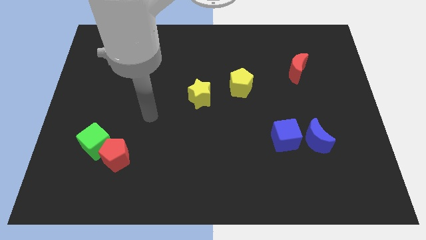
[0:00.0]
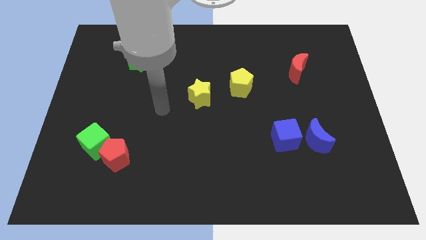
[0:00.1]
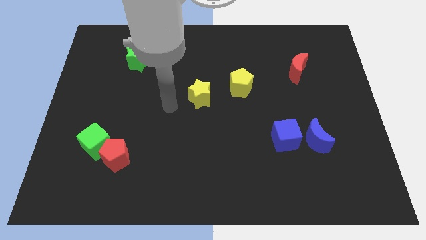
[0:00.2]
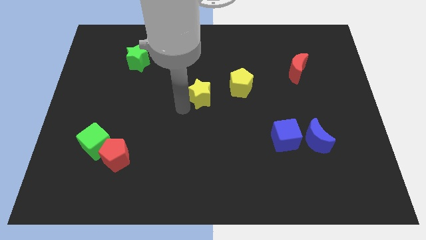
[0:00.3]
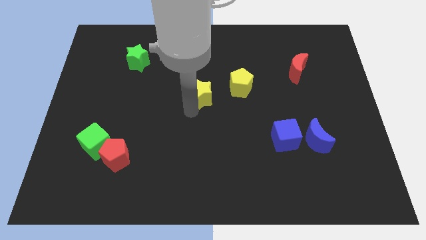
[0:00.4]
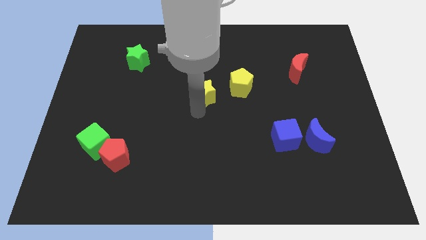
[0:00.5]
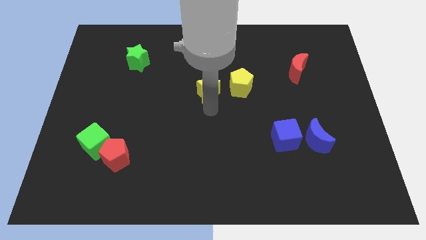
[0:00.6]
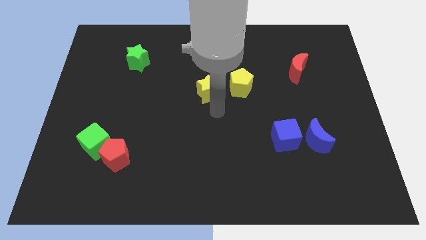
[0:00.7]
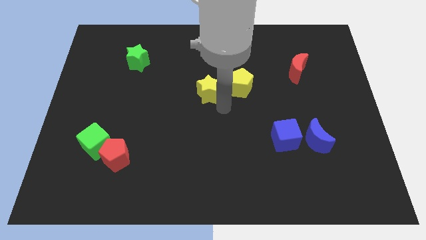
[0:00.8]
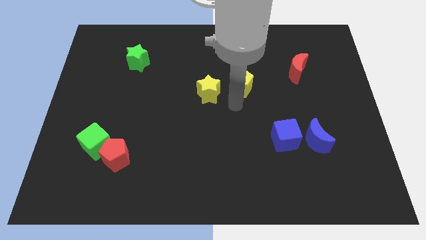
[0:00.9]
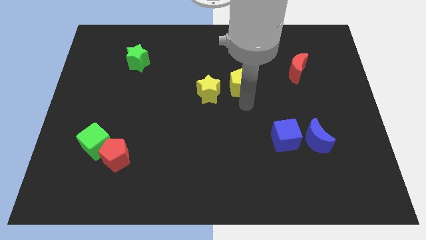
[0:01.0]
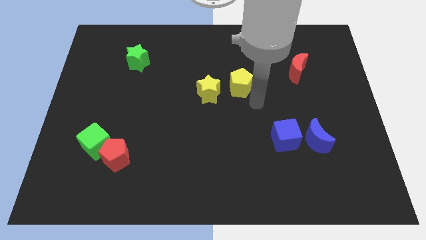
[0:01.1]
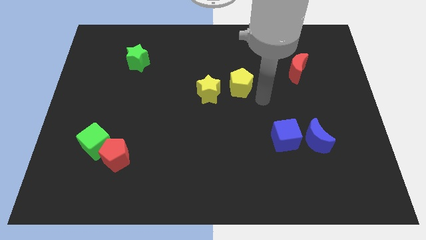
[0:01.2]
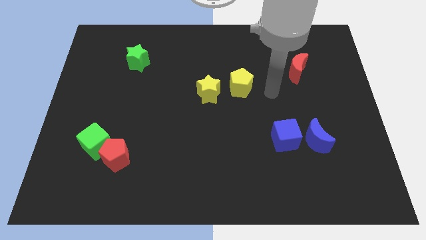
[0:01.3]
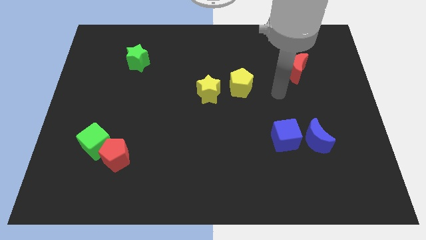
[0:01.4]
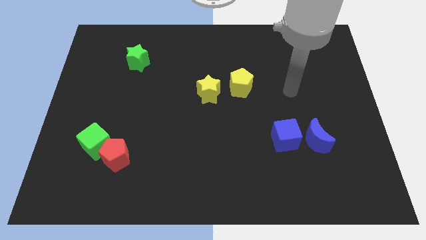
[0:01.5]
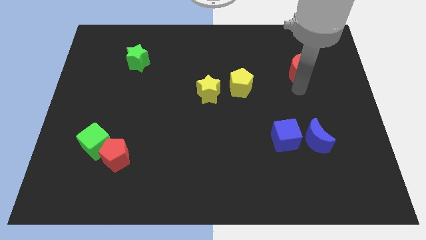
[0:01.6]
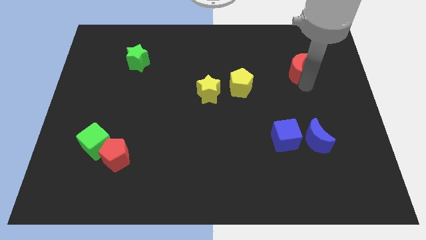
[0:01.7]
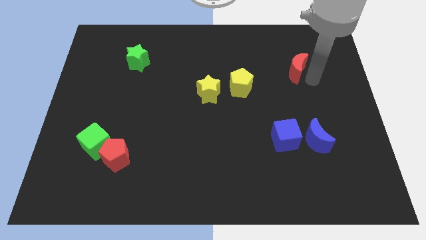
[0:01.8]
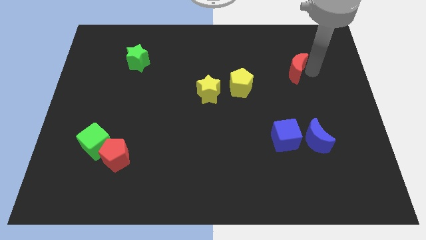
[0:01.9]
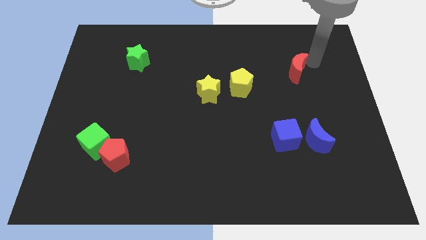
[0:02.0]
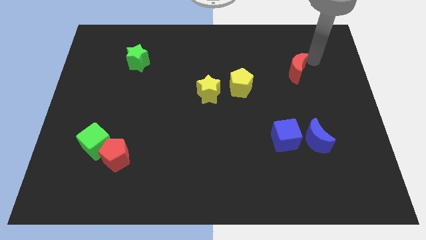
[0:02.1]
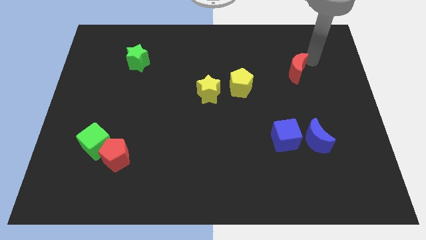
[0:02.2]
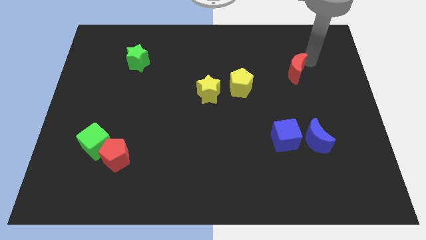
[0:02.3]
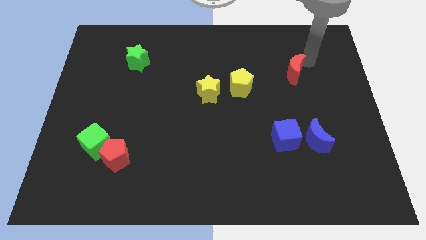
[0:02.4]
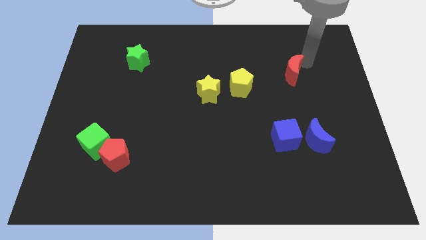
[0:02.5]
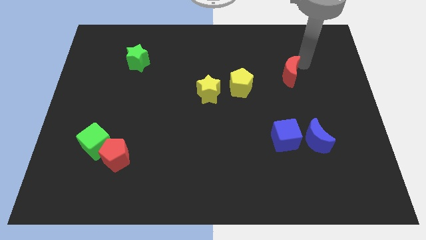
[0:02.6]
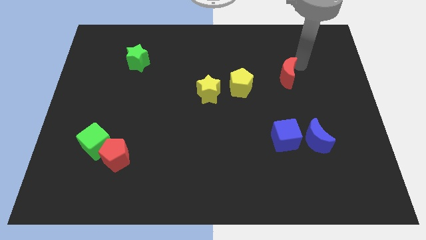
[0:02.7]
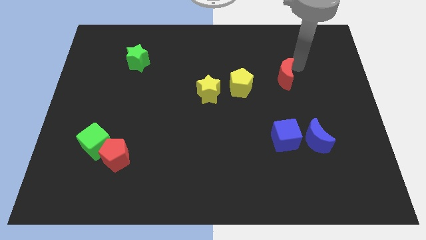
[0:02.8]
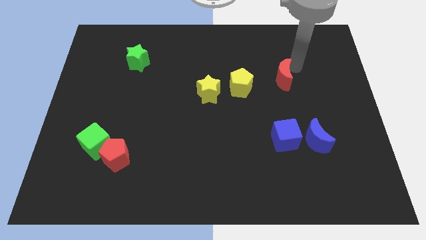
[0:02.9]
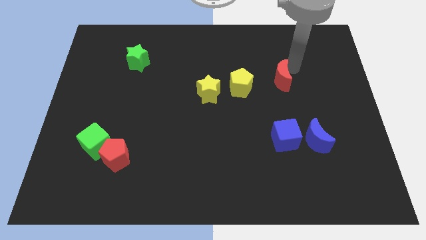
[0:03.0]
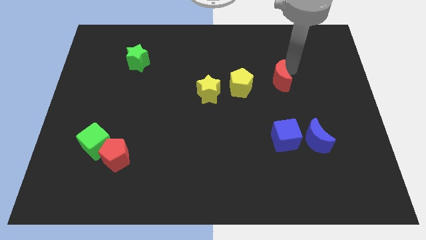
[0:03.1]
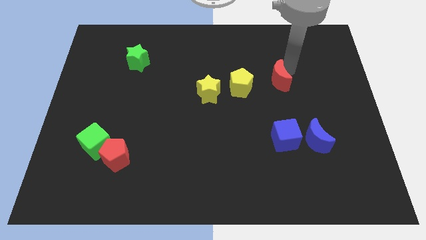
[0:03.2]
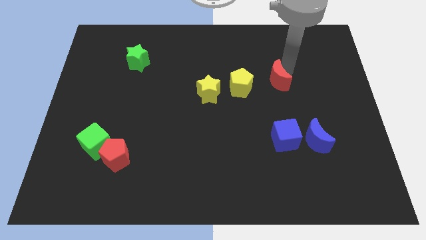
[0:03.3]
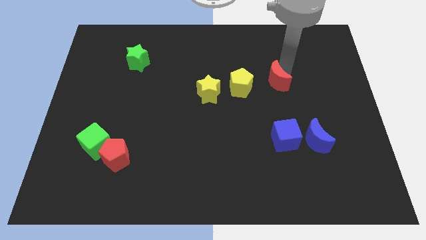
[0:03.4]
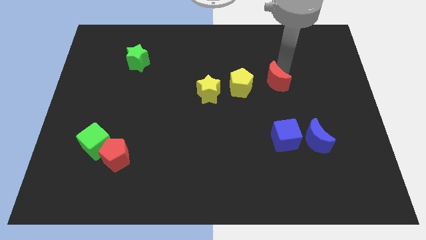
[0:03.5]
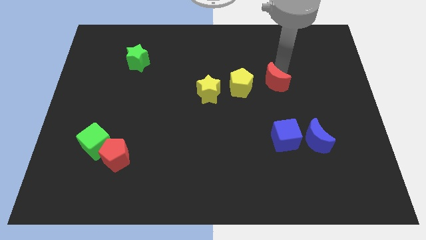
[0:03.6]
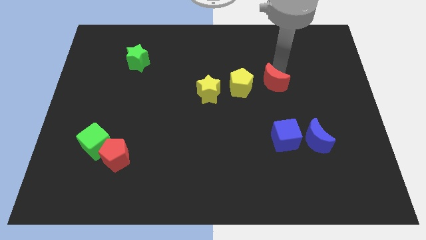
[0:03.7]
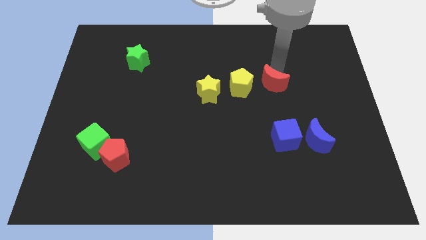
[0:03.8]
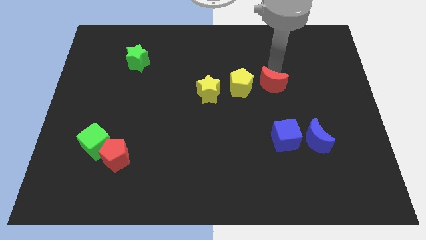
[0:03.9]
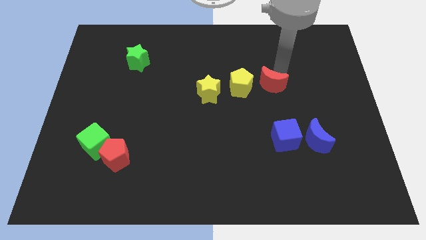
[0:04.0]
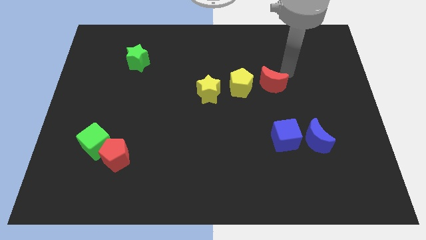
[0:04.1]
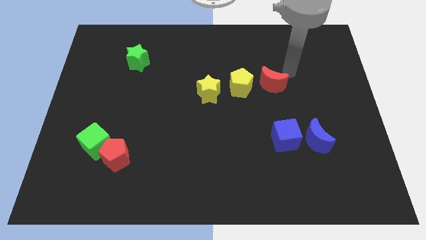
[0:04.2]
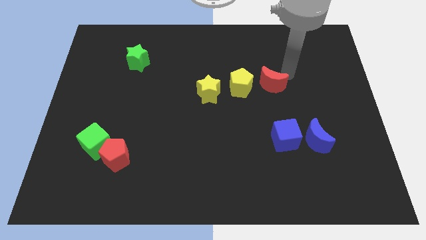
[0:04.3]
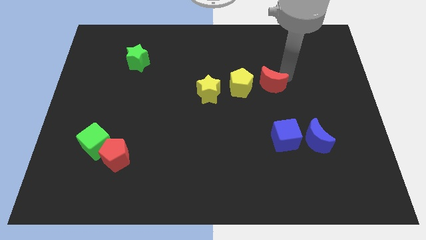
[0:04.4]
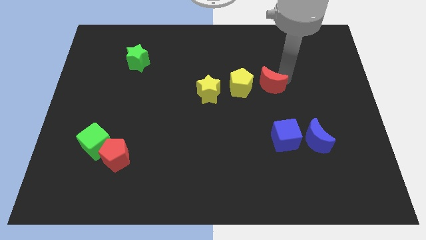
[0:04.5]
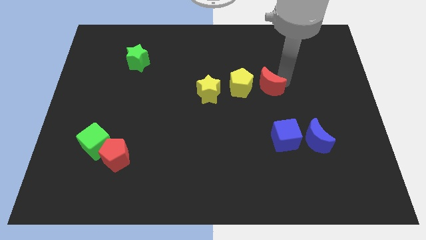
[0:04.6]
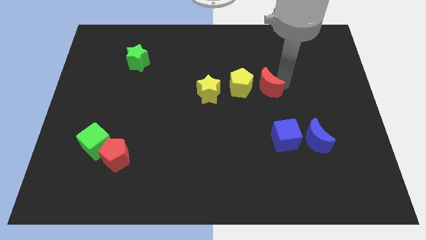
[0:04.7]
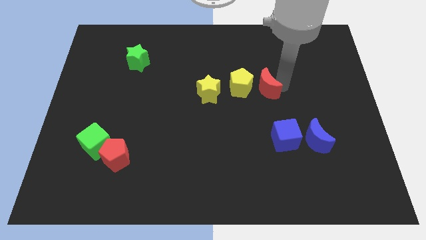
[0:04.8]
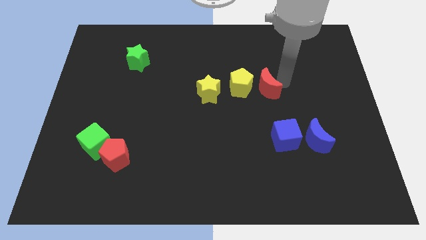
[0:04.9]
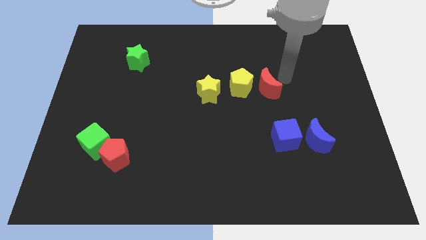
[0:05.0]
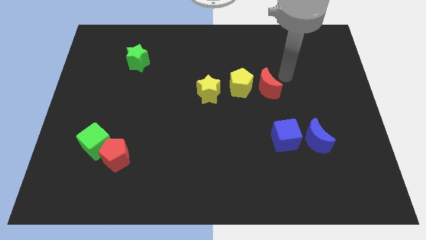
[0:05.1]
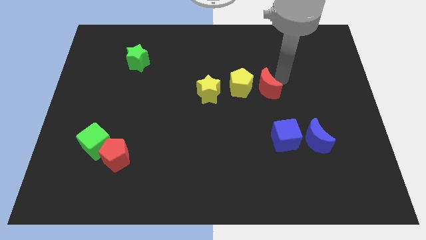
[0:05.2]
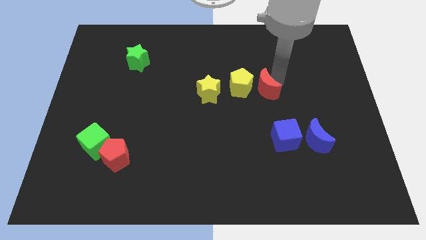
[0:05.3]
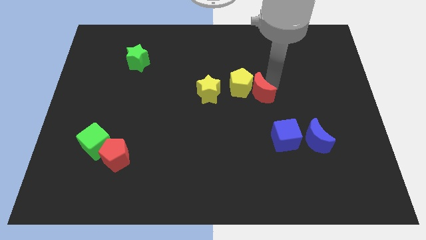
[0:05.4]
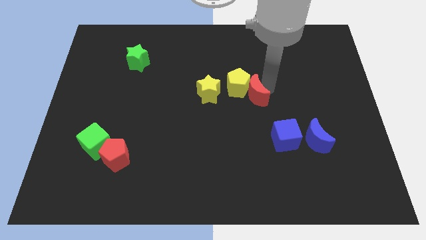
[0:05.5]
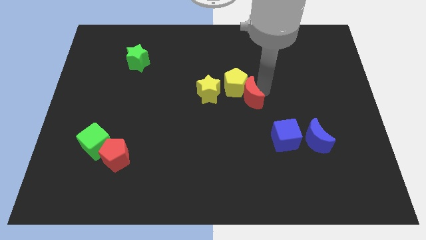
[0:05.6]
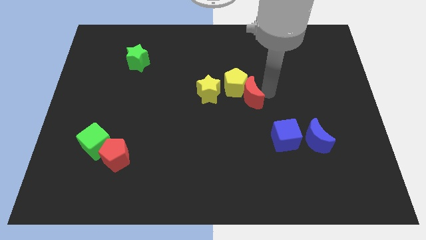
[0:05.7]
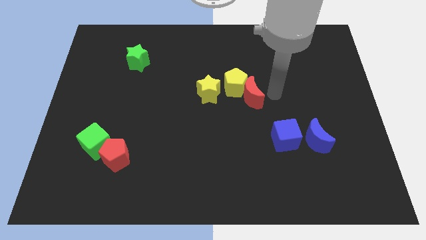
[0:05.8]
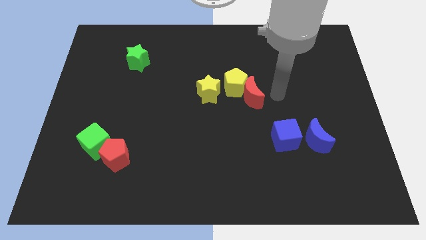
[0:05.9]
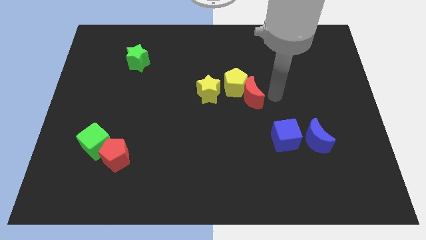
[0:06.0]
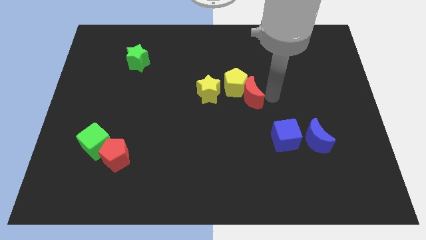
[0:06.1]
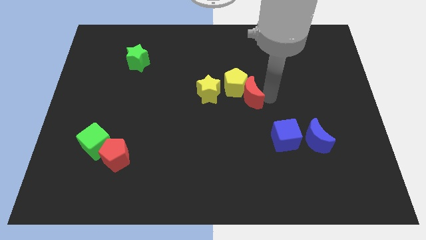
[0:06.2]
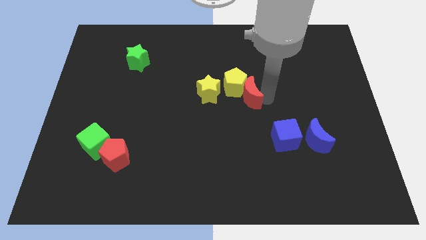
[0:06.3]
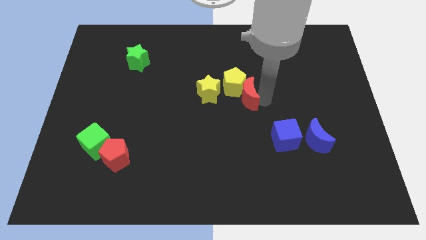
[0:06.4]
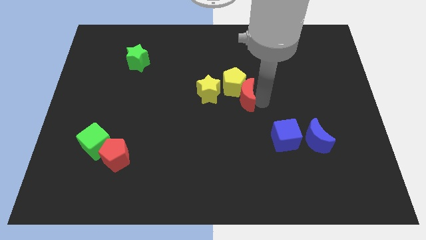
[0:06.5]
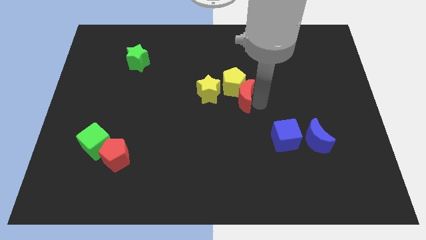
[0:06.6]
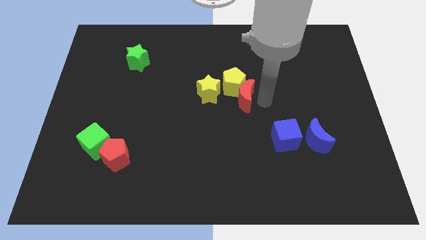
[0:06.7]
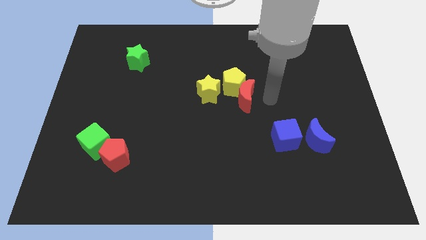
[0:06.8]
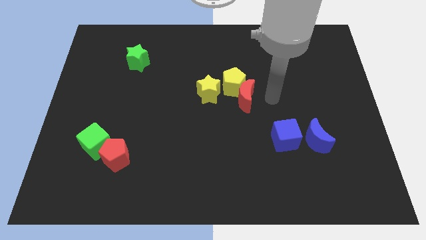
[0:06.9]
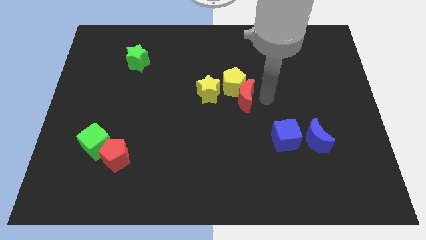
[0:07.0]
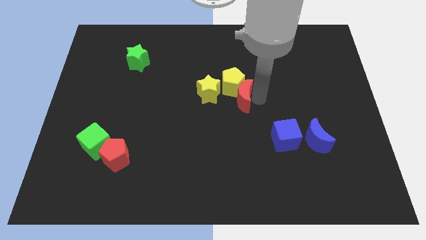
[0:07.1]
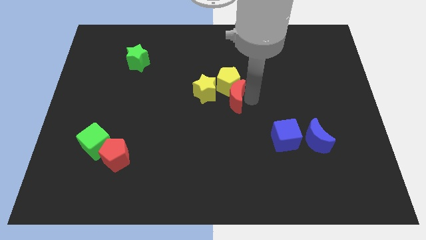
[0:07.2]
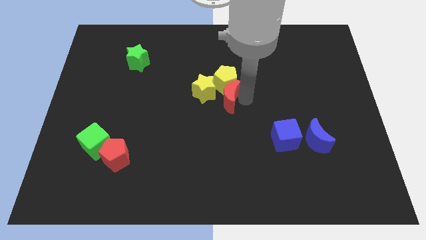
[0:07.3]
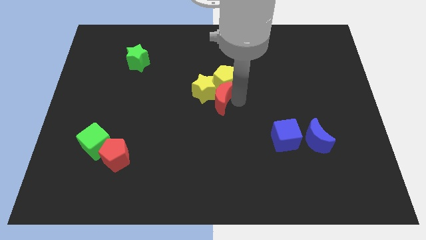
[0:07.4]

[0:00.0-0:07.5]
slide the red moon to the yellow star
